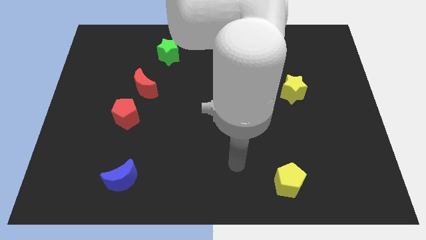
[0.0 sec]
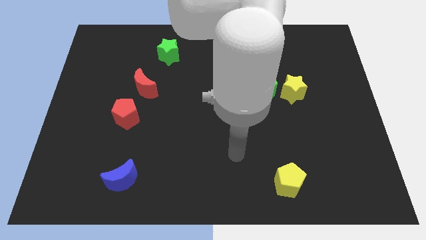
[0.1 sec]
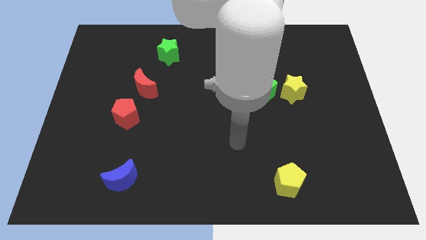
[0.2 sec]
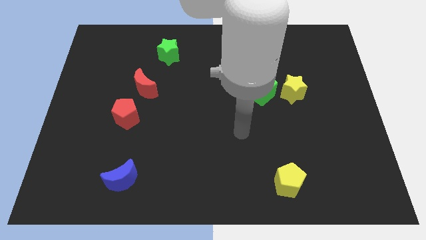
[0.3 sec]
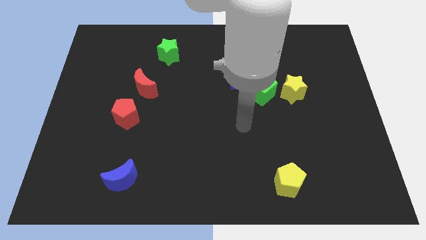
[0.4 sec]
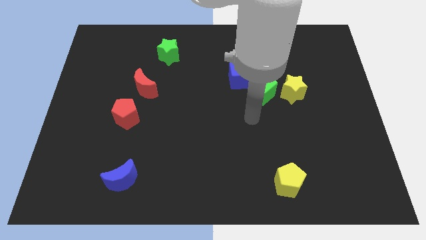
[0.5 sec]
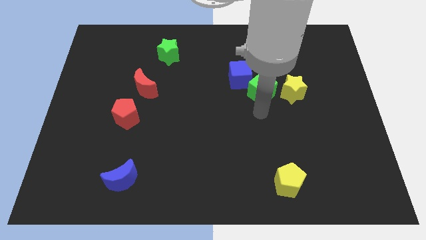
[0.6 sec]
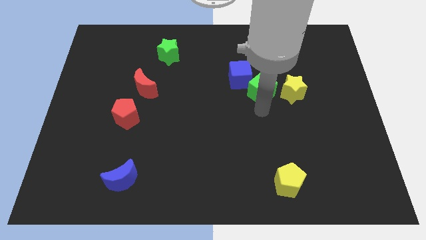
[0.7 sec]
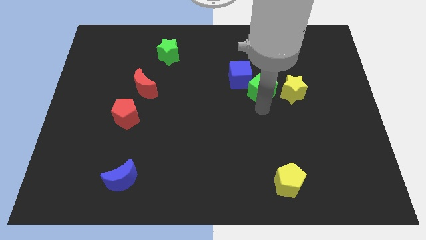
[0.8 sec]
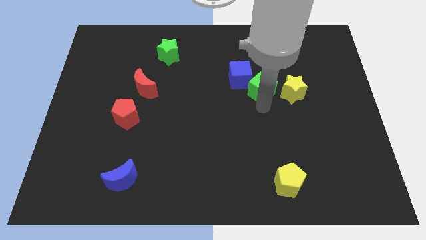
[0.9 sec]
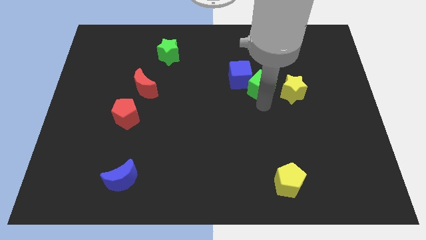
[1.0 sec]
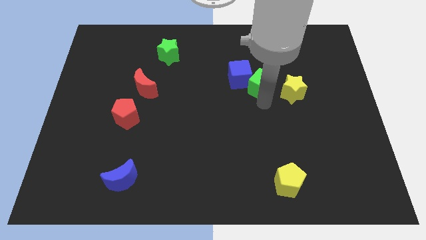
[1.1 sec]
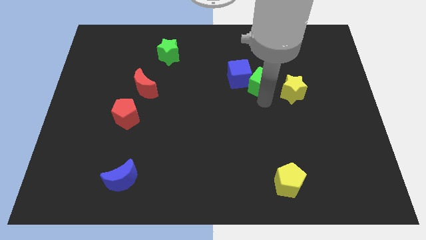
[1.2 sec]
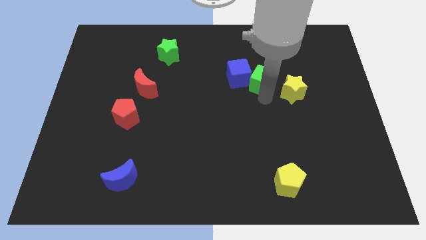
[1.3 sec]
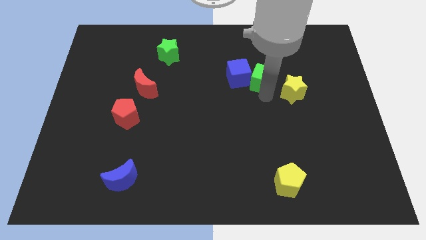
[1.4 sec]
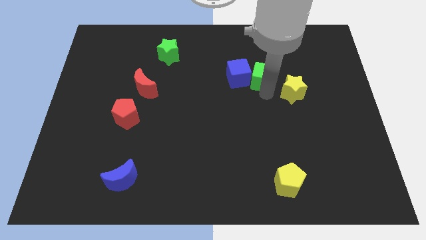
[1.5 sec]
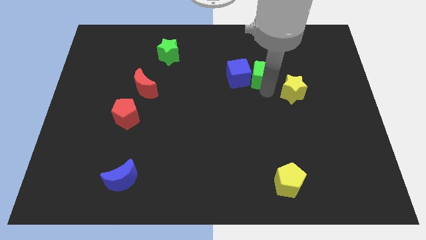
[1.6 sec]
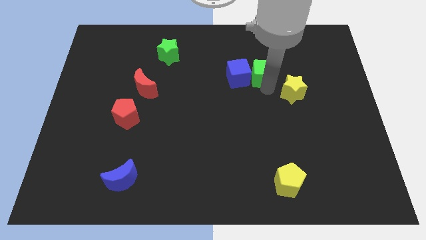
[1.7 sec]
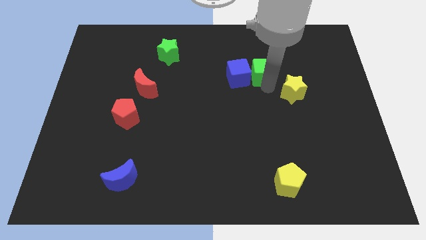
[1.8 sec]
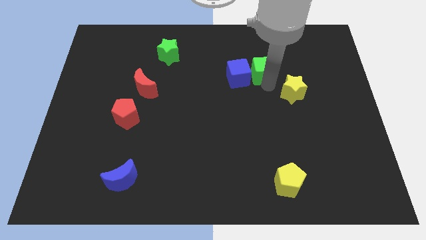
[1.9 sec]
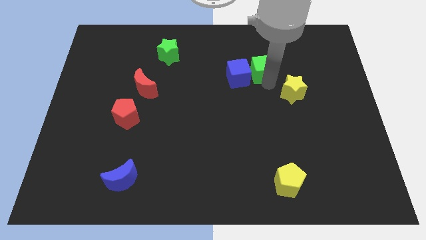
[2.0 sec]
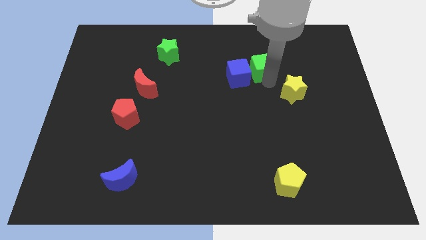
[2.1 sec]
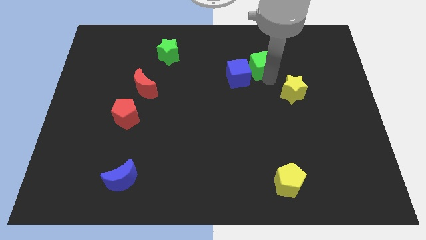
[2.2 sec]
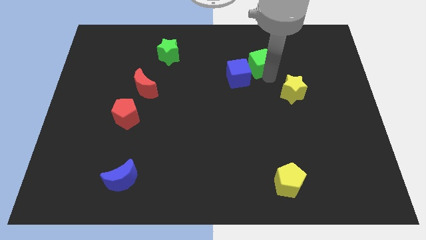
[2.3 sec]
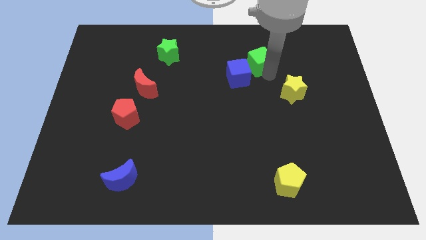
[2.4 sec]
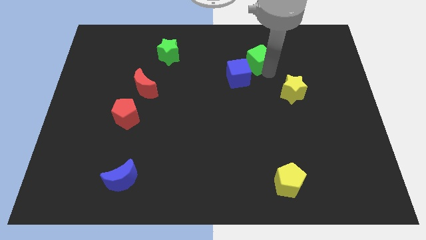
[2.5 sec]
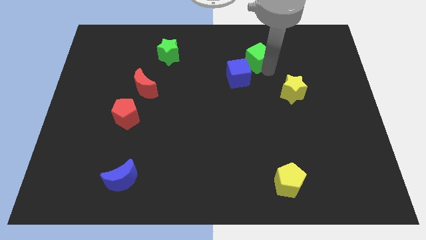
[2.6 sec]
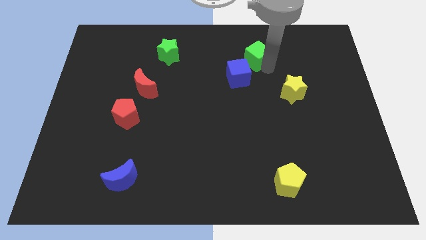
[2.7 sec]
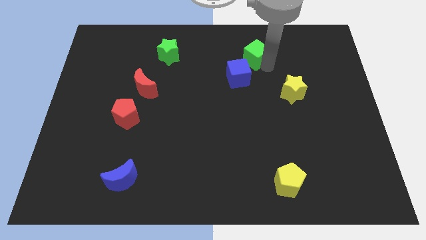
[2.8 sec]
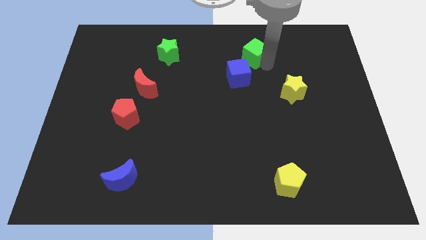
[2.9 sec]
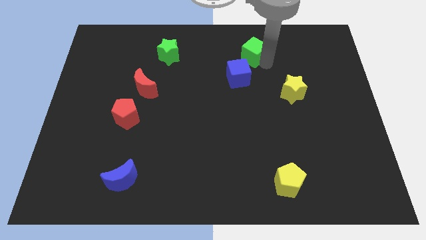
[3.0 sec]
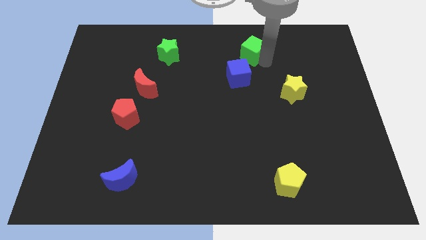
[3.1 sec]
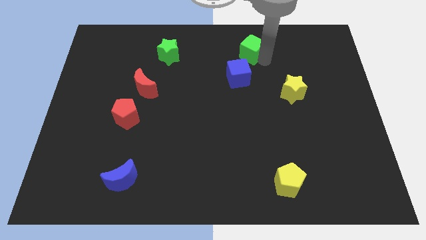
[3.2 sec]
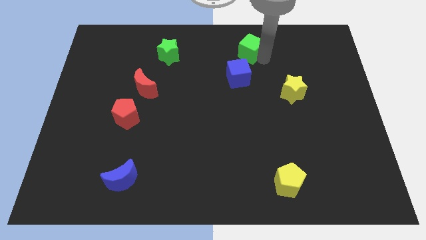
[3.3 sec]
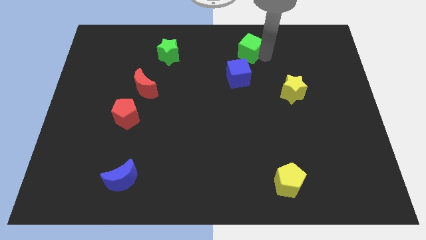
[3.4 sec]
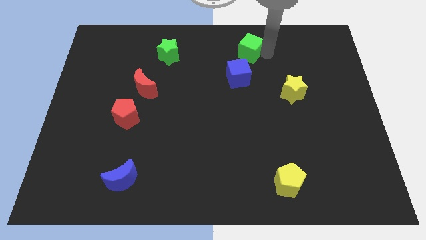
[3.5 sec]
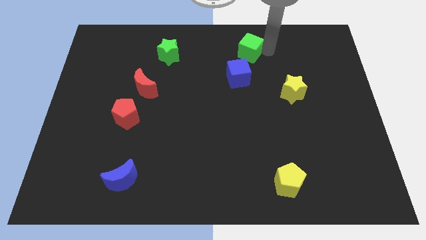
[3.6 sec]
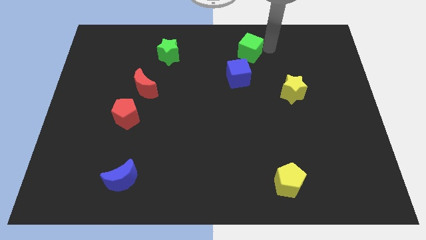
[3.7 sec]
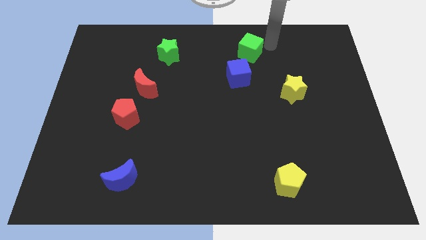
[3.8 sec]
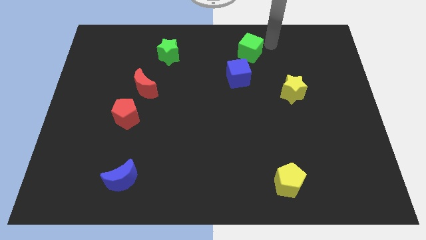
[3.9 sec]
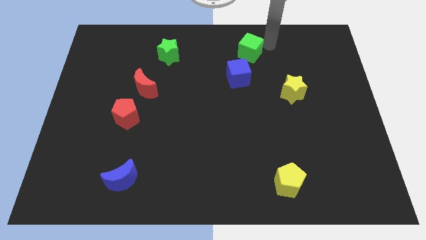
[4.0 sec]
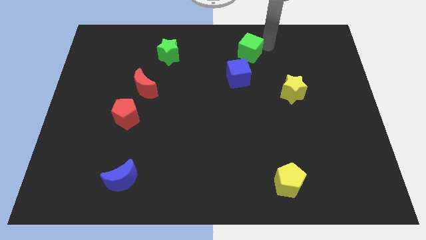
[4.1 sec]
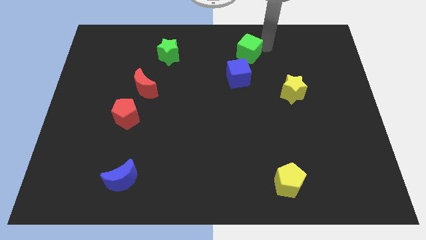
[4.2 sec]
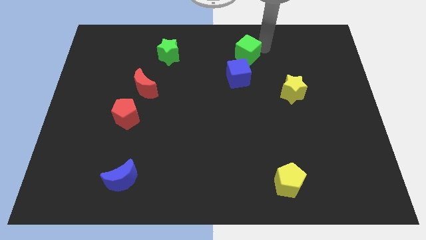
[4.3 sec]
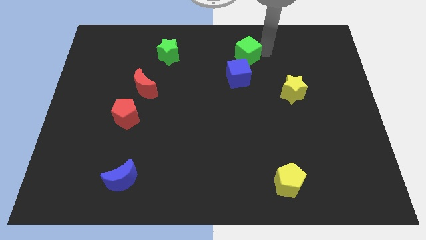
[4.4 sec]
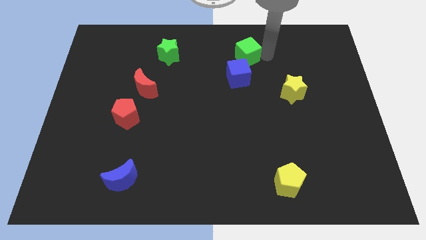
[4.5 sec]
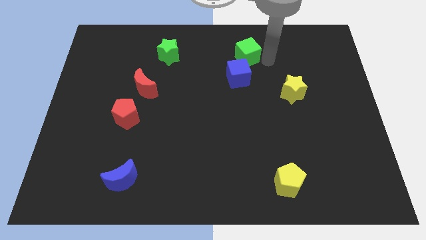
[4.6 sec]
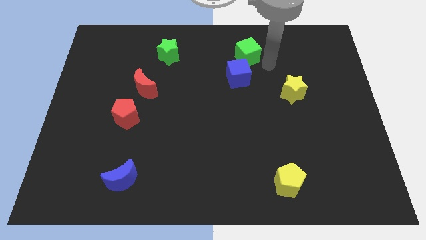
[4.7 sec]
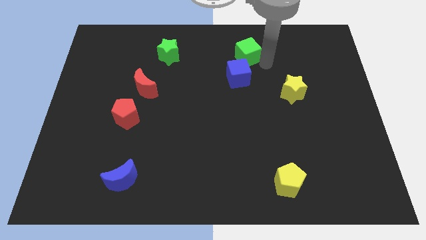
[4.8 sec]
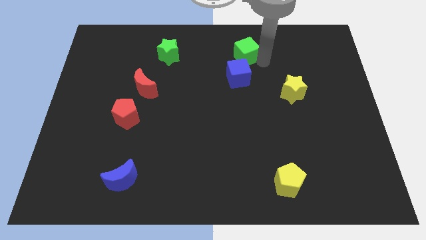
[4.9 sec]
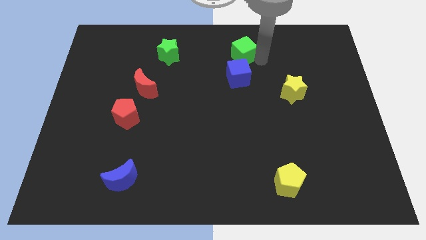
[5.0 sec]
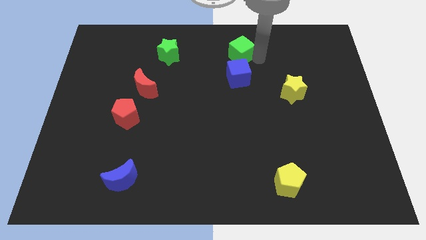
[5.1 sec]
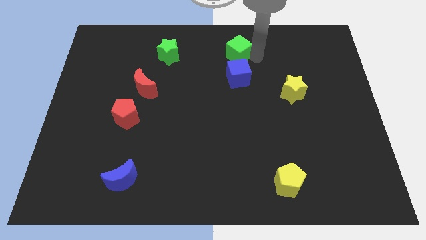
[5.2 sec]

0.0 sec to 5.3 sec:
put the green cube to the towards your base

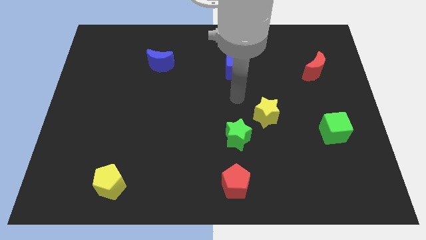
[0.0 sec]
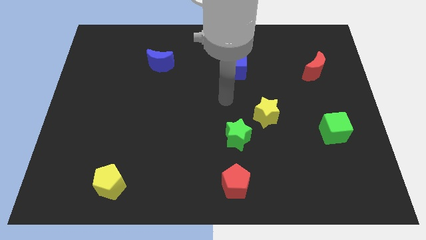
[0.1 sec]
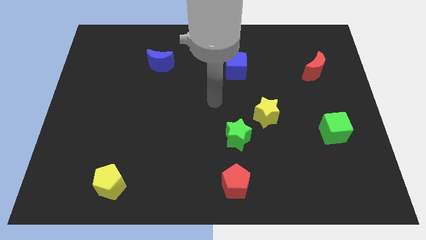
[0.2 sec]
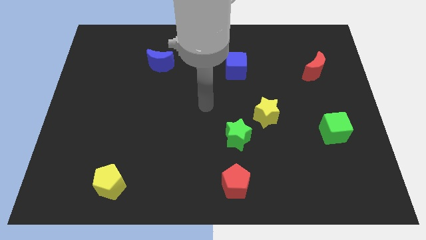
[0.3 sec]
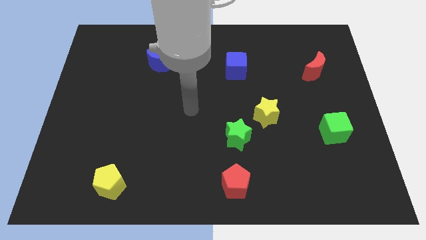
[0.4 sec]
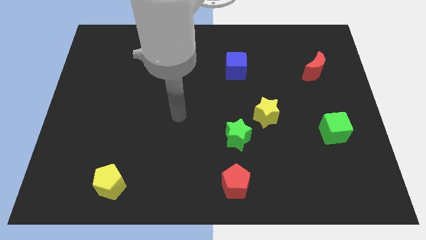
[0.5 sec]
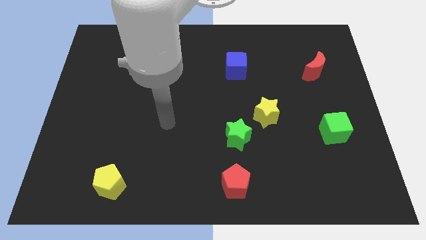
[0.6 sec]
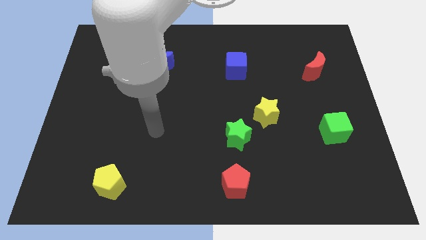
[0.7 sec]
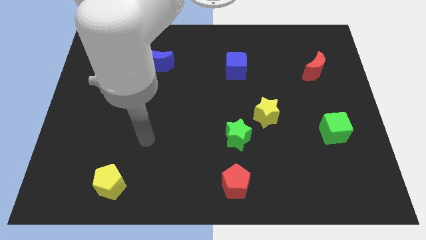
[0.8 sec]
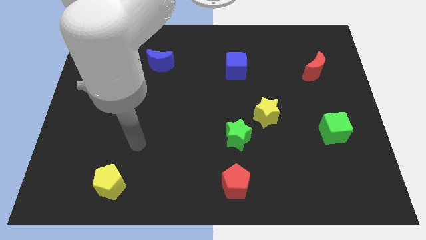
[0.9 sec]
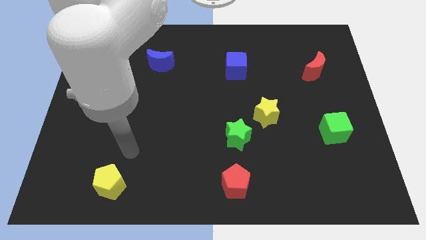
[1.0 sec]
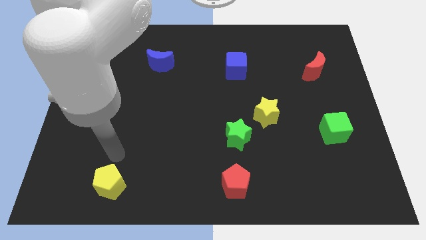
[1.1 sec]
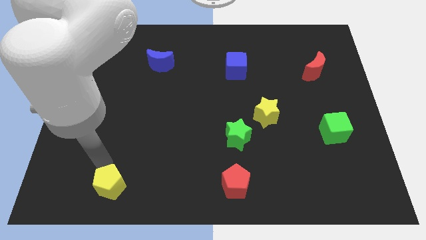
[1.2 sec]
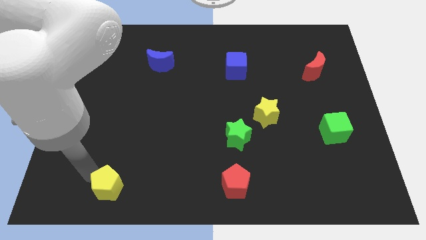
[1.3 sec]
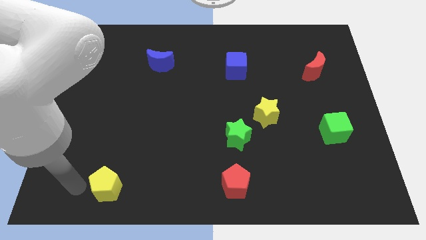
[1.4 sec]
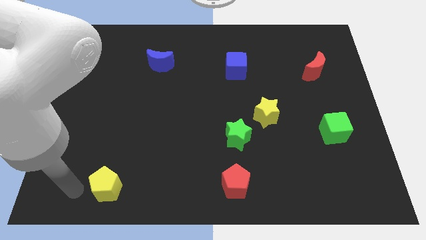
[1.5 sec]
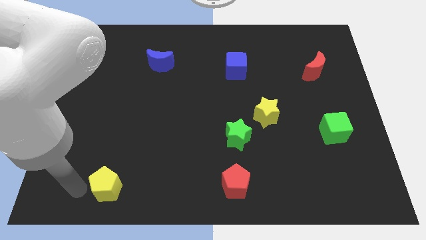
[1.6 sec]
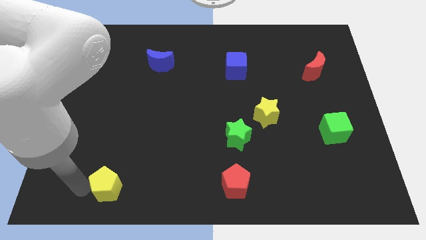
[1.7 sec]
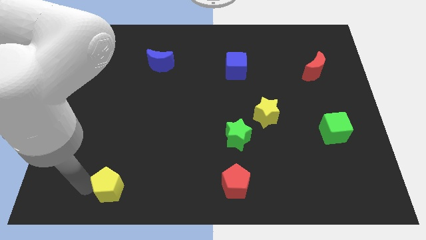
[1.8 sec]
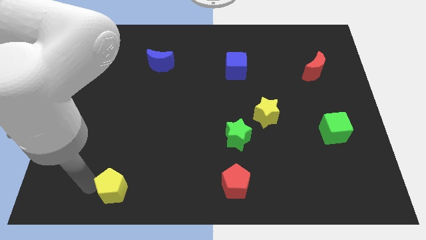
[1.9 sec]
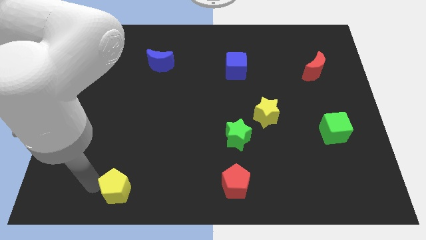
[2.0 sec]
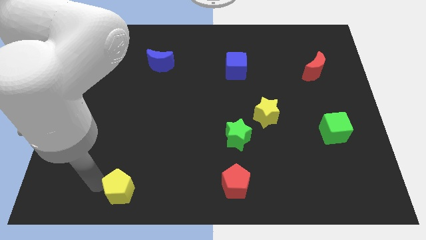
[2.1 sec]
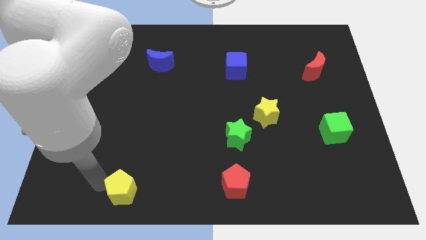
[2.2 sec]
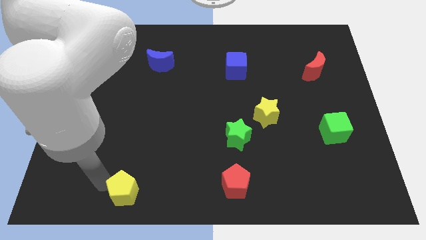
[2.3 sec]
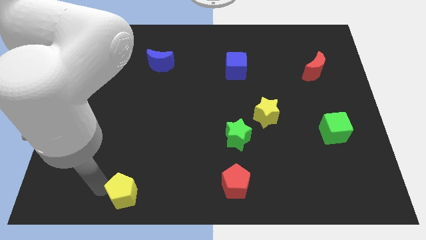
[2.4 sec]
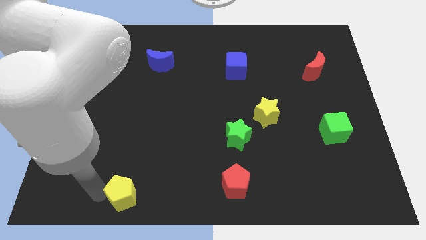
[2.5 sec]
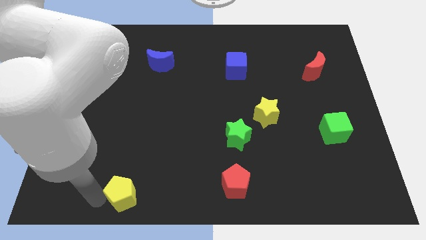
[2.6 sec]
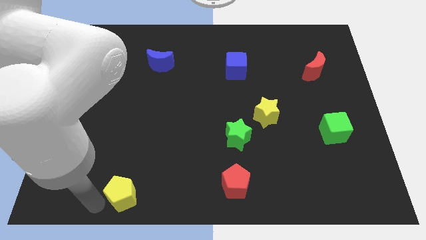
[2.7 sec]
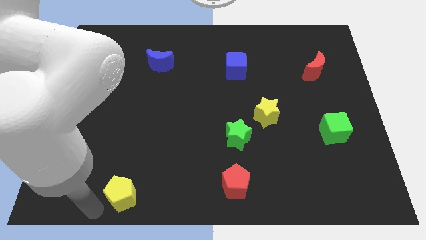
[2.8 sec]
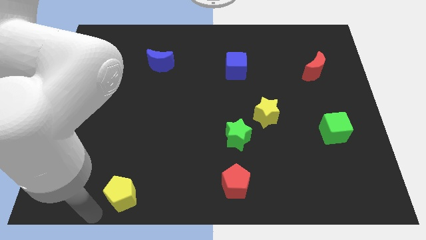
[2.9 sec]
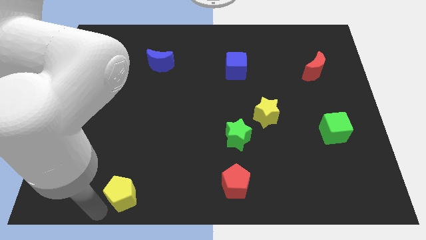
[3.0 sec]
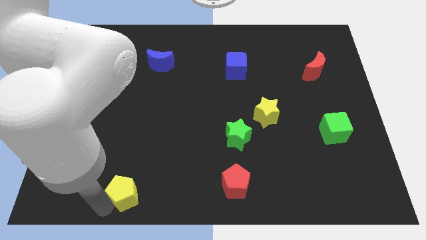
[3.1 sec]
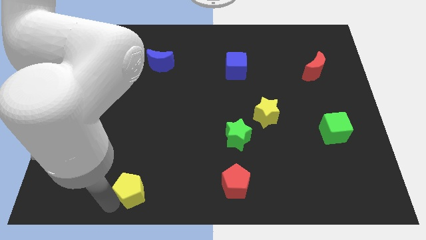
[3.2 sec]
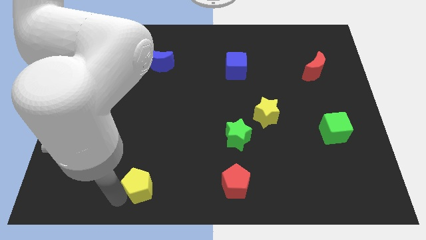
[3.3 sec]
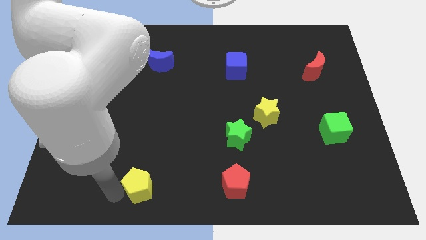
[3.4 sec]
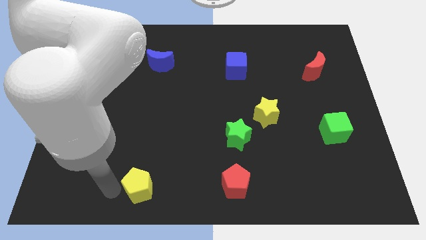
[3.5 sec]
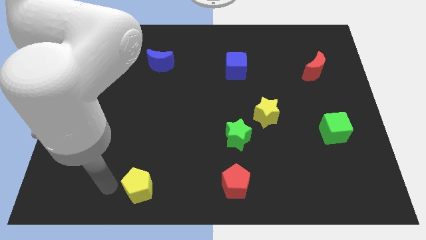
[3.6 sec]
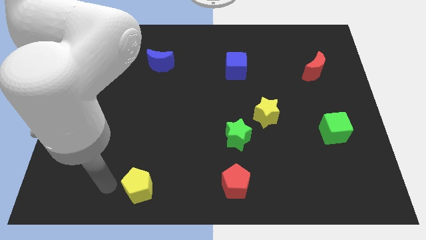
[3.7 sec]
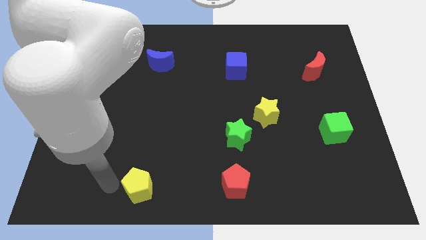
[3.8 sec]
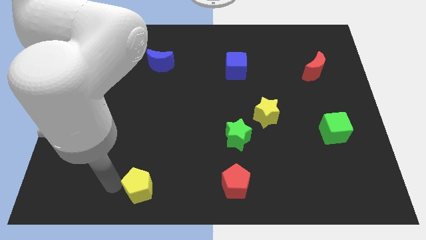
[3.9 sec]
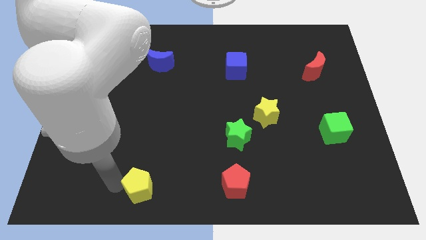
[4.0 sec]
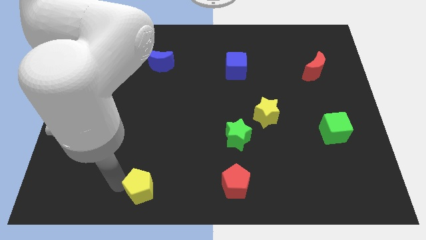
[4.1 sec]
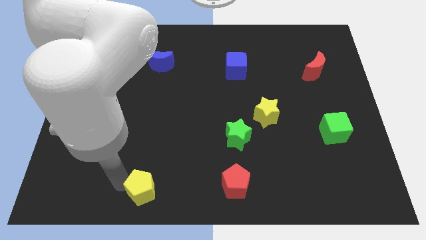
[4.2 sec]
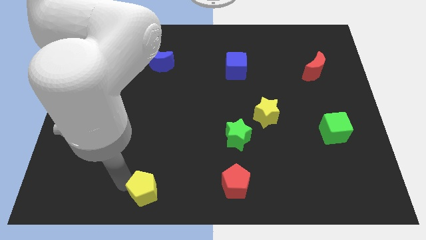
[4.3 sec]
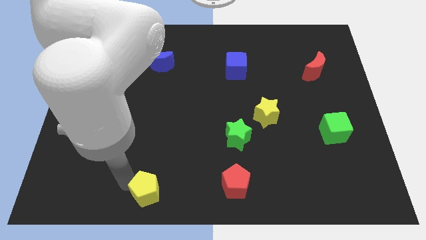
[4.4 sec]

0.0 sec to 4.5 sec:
move the yellow pentagon to the bottom side
